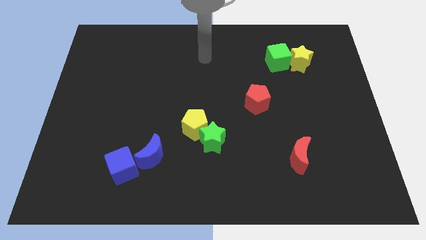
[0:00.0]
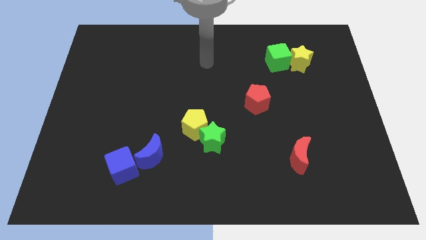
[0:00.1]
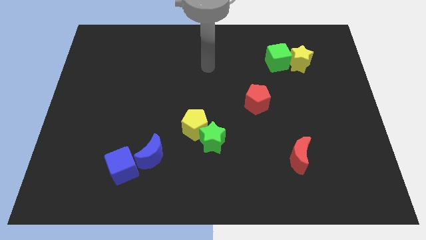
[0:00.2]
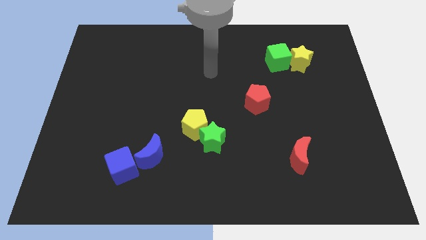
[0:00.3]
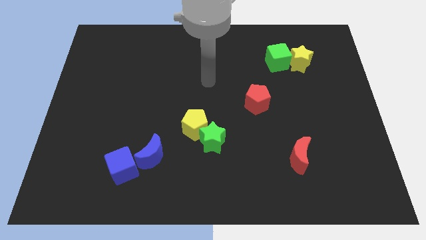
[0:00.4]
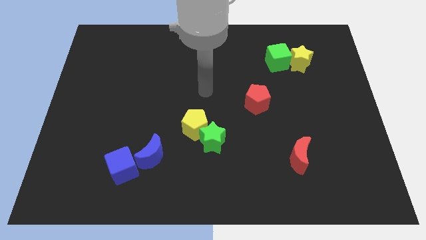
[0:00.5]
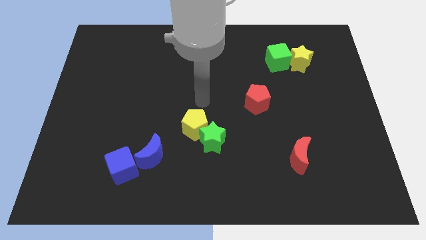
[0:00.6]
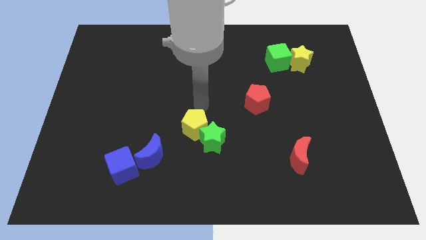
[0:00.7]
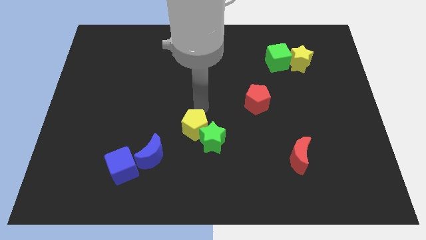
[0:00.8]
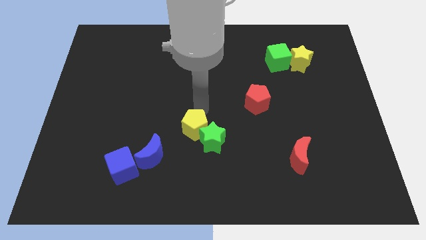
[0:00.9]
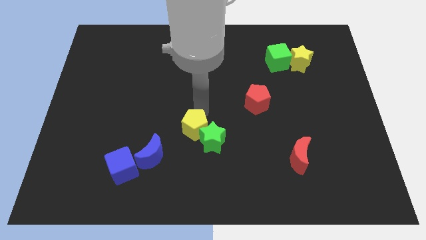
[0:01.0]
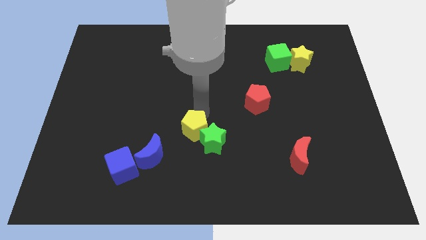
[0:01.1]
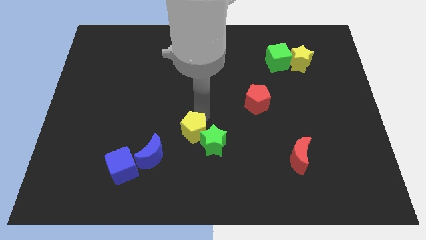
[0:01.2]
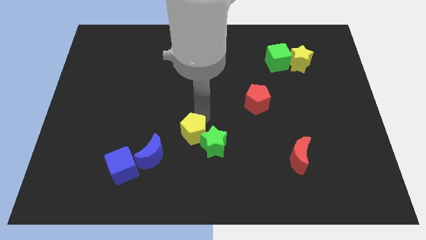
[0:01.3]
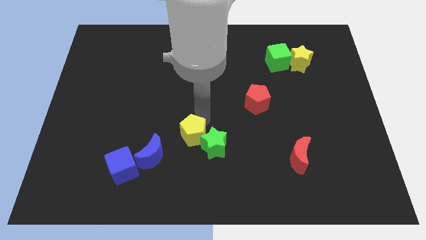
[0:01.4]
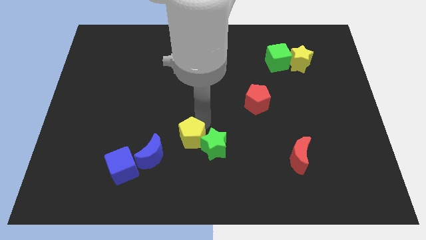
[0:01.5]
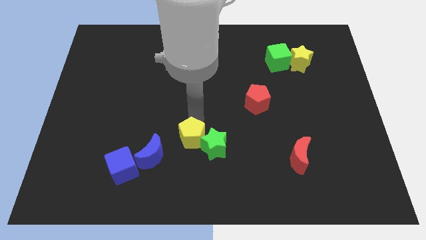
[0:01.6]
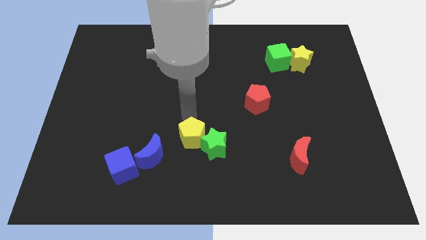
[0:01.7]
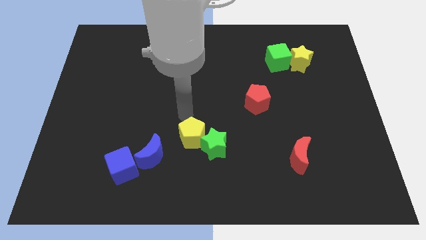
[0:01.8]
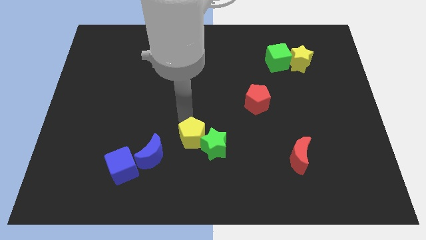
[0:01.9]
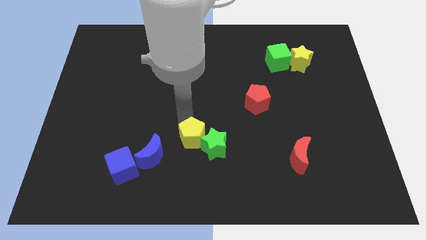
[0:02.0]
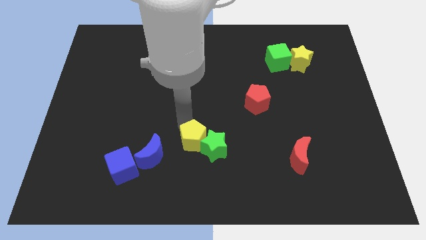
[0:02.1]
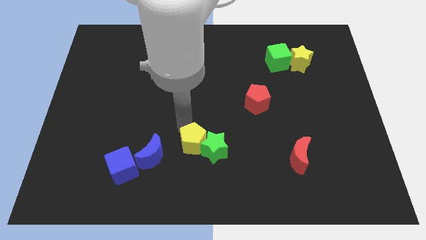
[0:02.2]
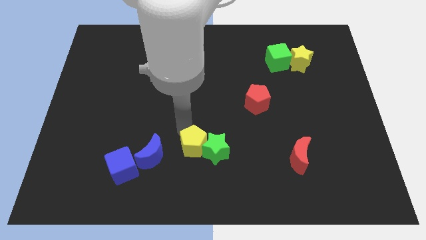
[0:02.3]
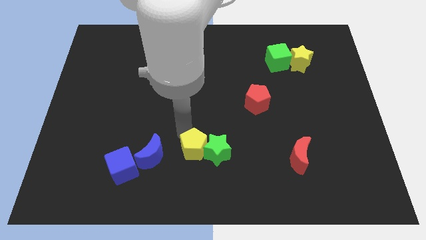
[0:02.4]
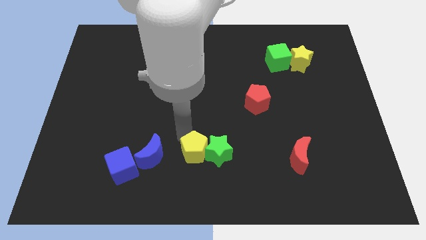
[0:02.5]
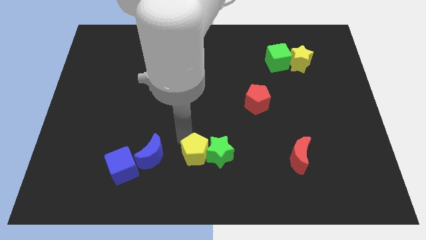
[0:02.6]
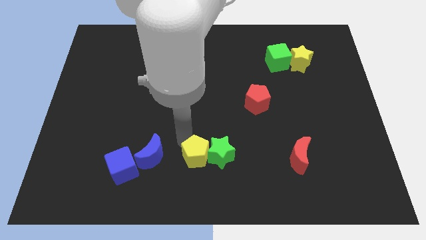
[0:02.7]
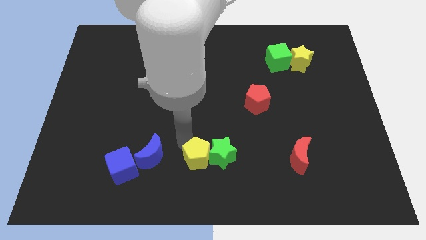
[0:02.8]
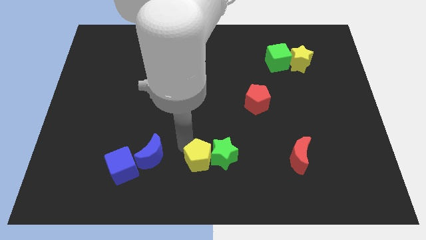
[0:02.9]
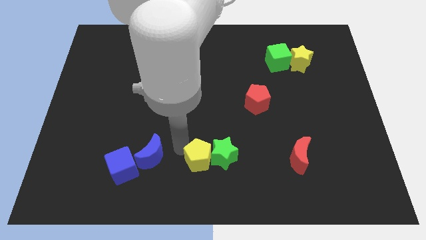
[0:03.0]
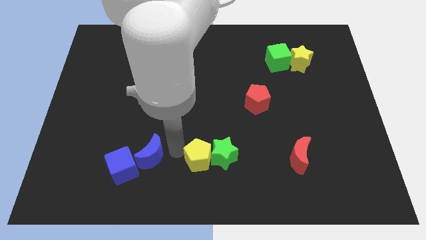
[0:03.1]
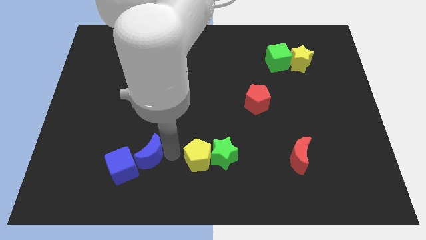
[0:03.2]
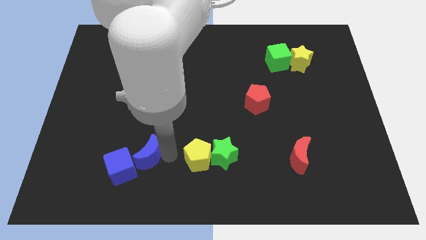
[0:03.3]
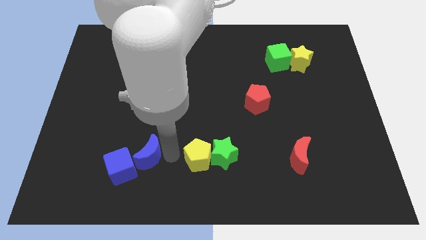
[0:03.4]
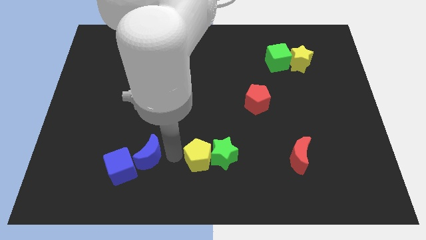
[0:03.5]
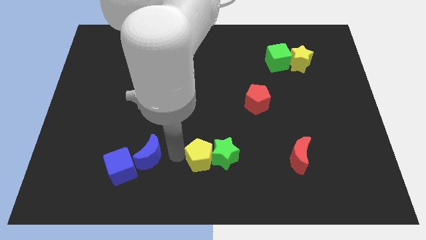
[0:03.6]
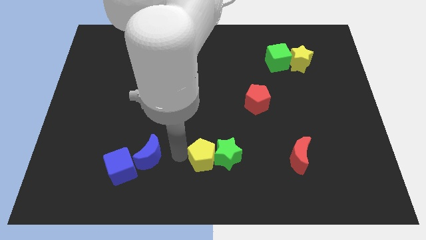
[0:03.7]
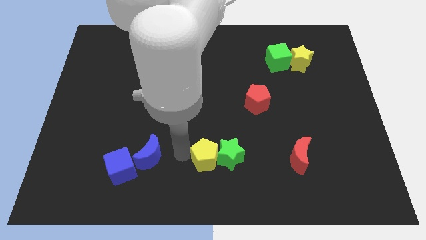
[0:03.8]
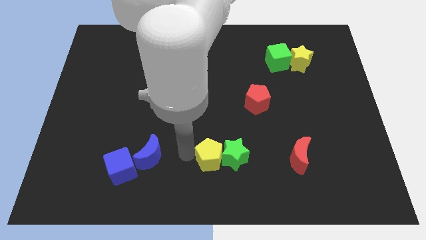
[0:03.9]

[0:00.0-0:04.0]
slightly push the yellow pentagon diagonally down and to the right

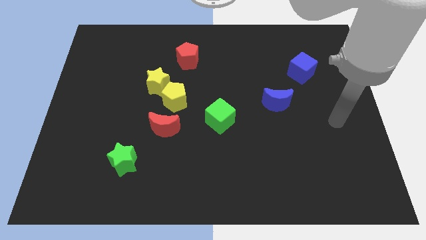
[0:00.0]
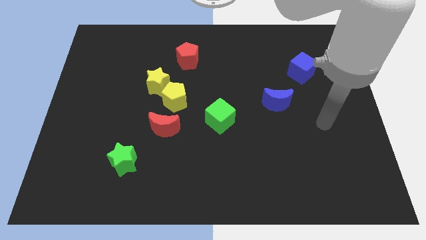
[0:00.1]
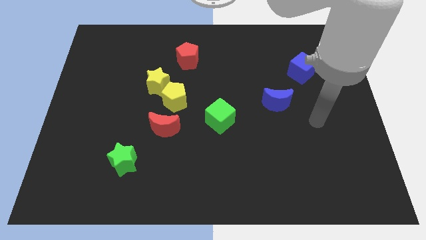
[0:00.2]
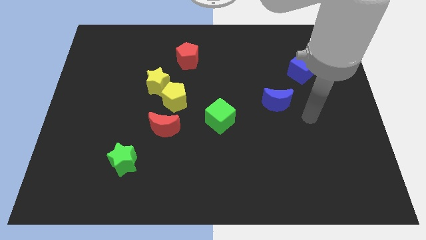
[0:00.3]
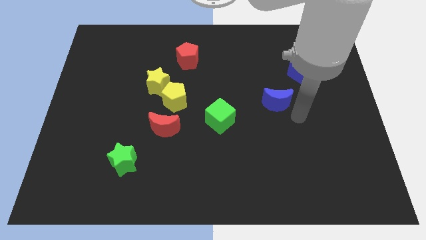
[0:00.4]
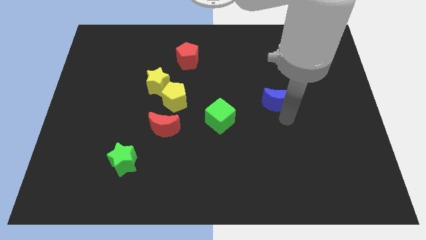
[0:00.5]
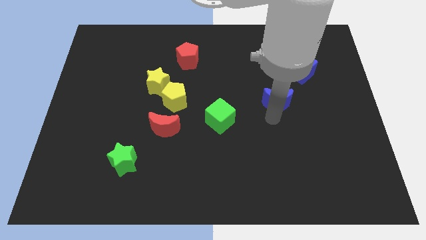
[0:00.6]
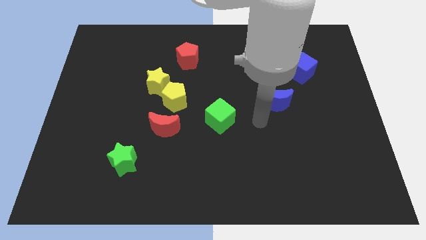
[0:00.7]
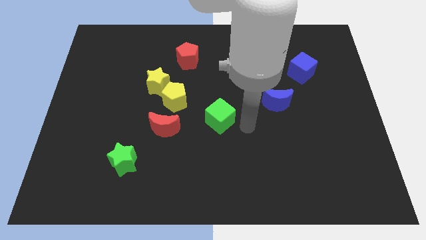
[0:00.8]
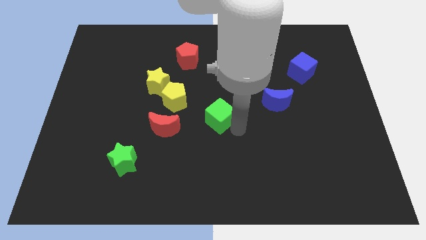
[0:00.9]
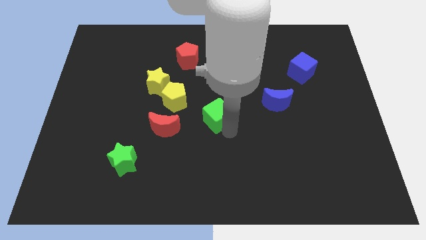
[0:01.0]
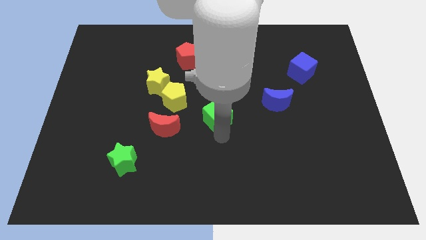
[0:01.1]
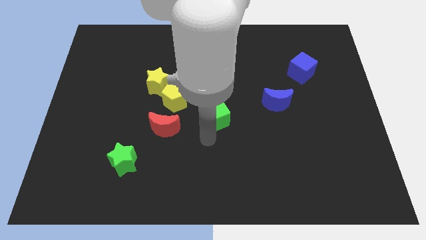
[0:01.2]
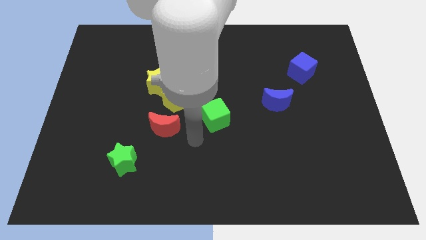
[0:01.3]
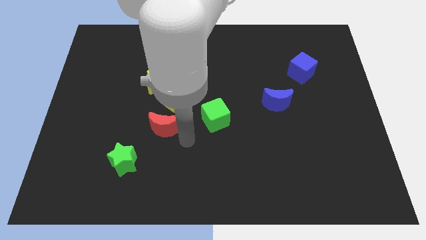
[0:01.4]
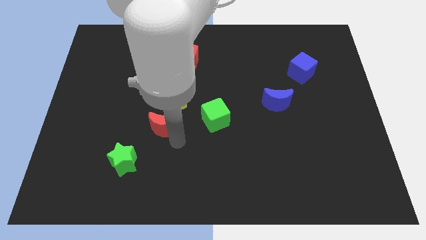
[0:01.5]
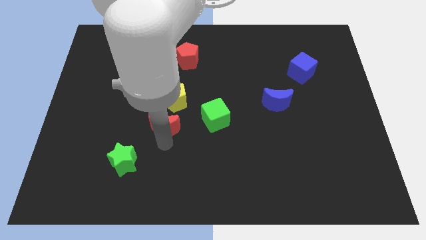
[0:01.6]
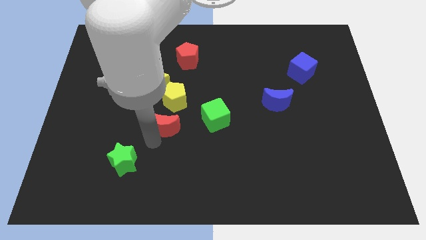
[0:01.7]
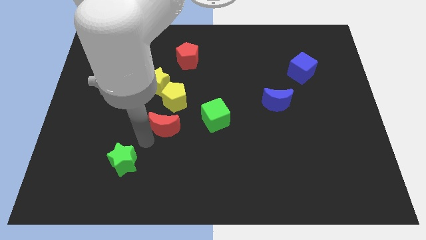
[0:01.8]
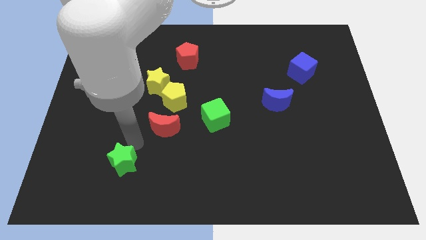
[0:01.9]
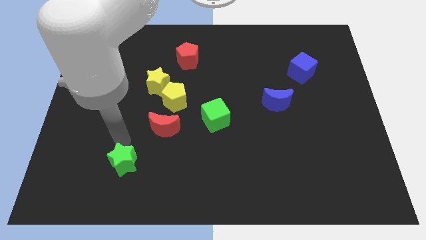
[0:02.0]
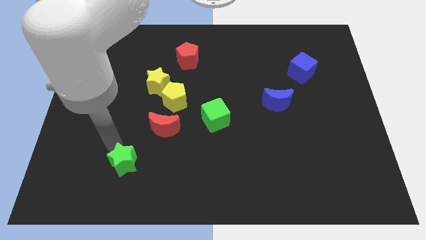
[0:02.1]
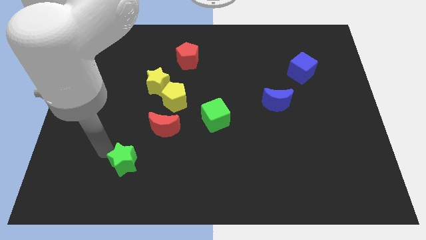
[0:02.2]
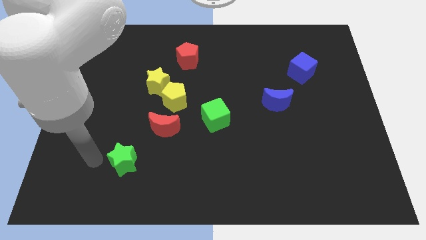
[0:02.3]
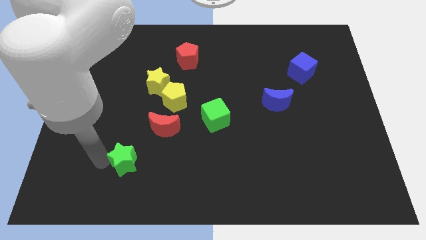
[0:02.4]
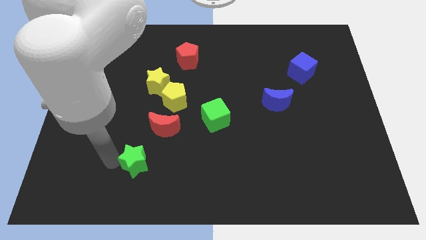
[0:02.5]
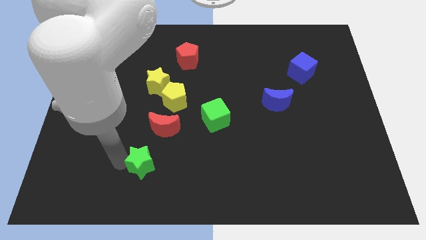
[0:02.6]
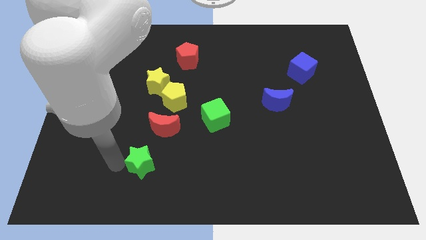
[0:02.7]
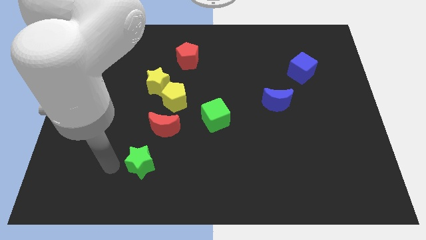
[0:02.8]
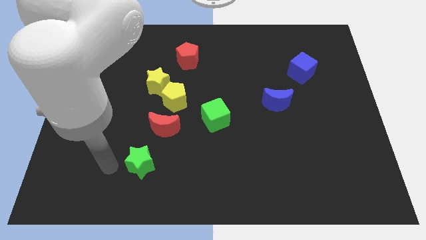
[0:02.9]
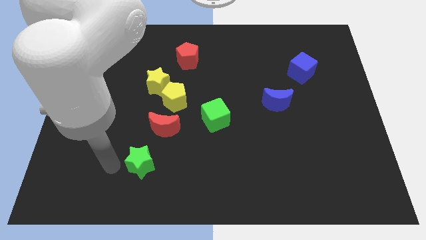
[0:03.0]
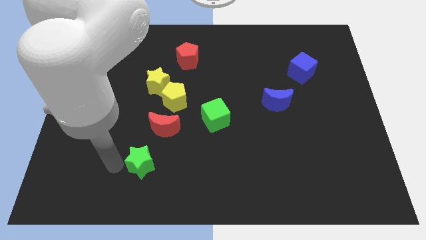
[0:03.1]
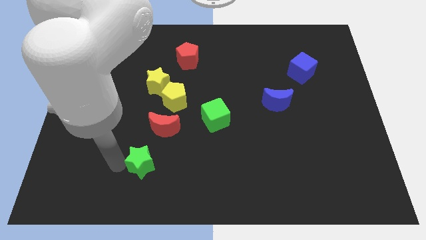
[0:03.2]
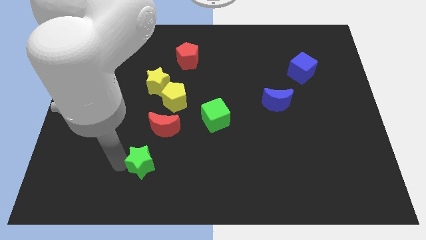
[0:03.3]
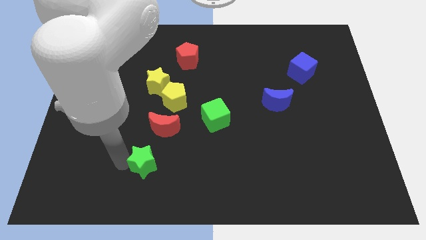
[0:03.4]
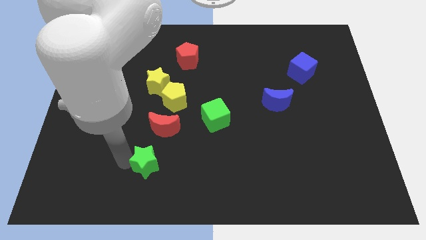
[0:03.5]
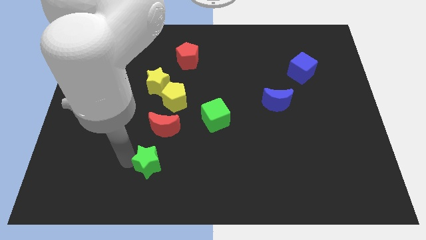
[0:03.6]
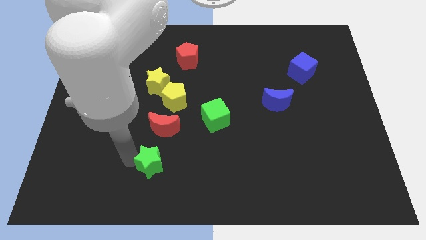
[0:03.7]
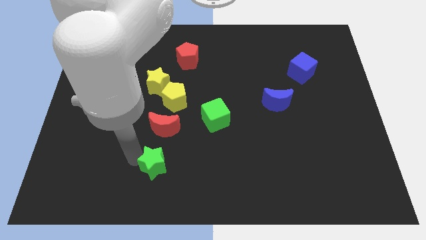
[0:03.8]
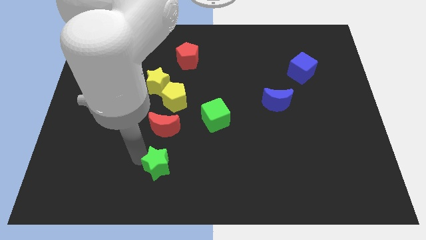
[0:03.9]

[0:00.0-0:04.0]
push the green star to the right a bit

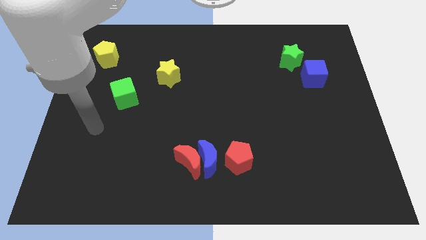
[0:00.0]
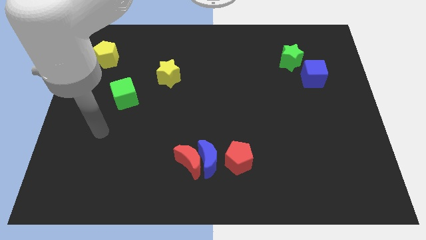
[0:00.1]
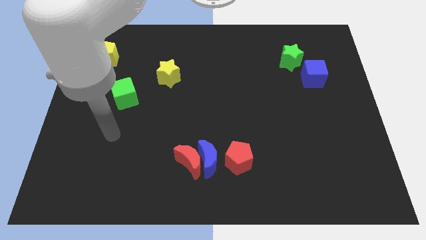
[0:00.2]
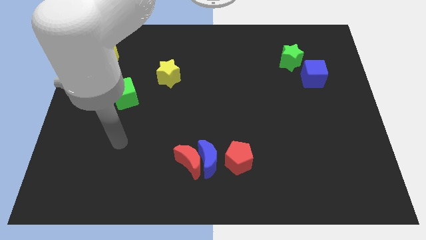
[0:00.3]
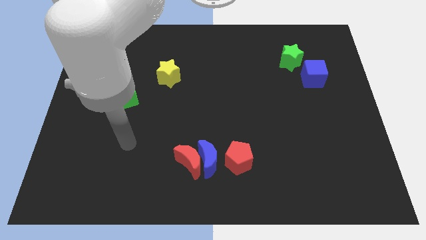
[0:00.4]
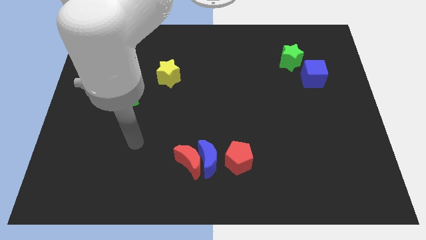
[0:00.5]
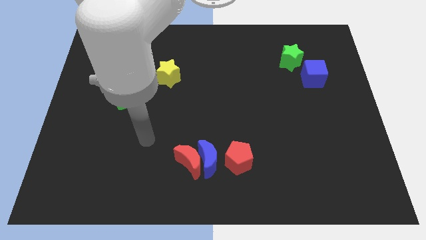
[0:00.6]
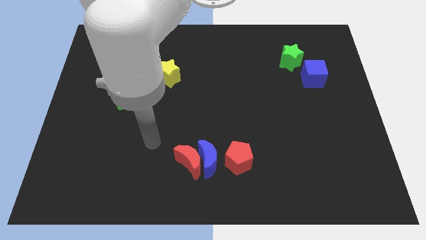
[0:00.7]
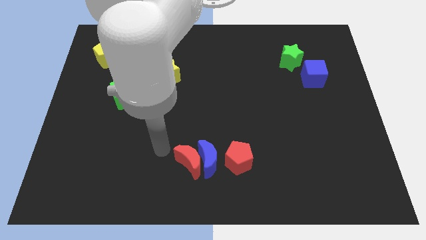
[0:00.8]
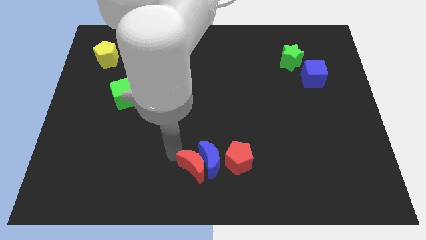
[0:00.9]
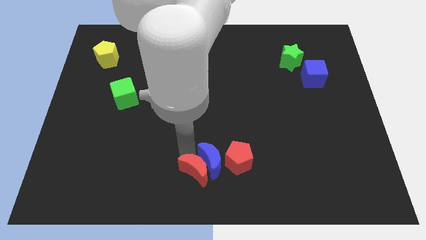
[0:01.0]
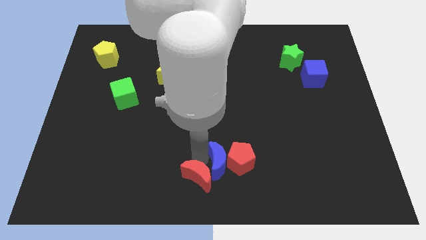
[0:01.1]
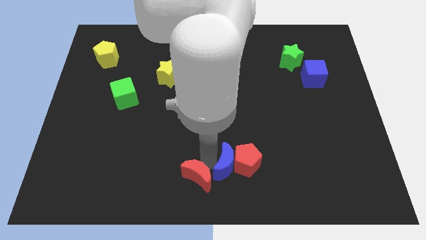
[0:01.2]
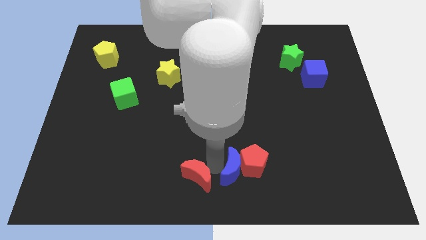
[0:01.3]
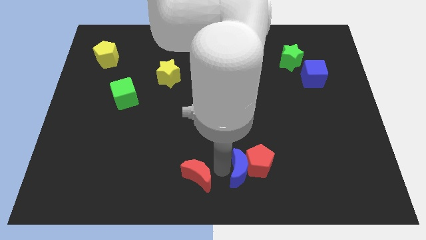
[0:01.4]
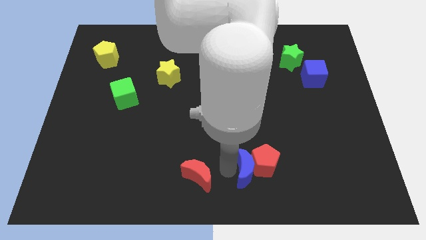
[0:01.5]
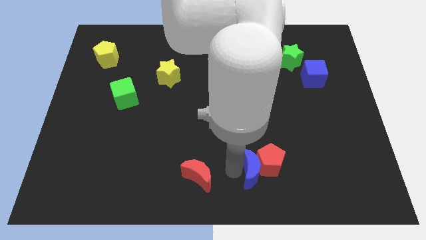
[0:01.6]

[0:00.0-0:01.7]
slightly move the red pentagon to the right
